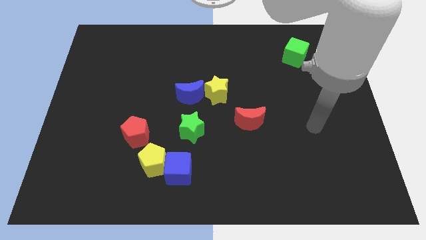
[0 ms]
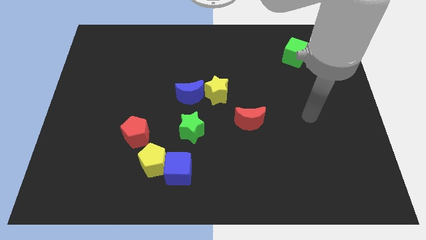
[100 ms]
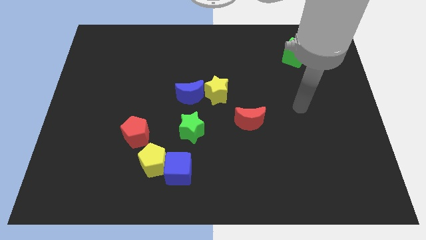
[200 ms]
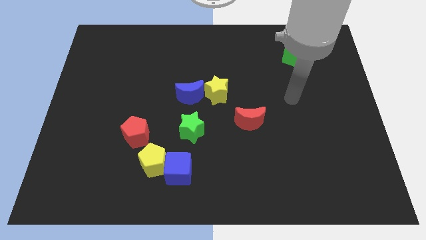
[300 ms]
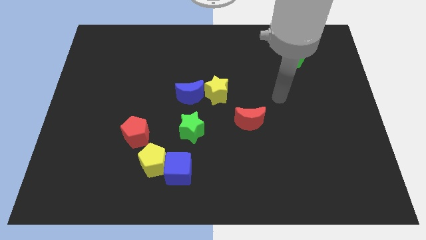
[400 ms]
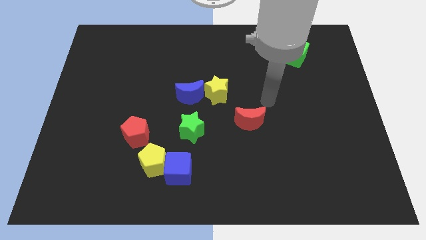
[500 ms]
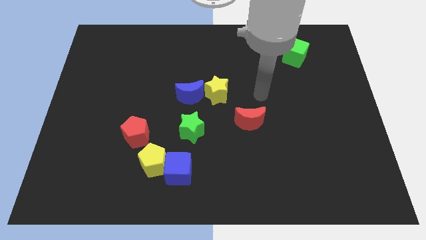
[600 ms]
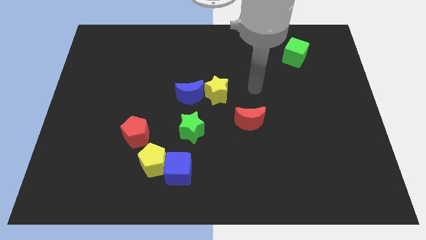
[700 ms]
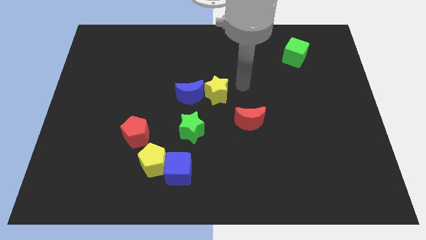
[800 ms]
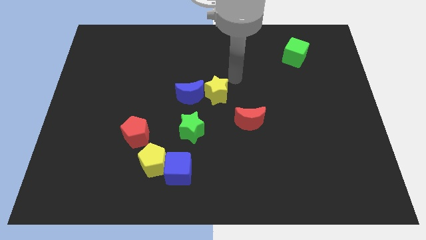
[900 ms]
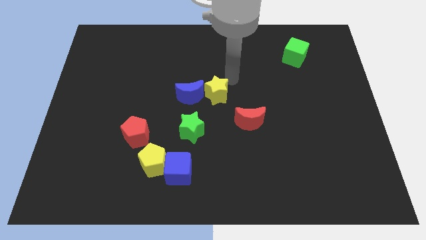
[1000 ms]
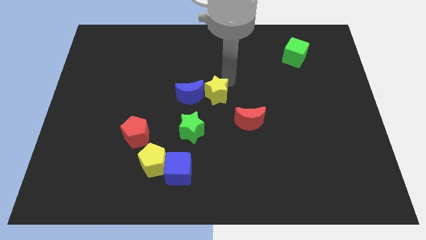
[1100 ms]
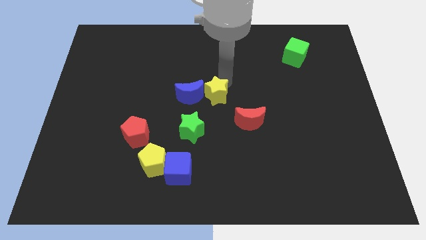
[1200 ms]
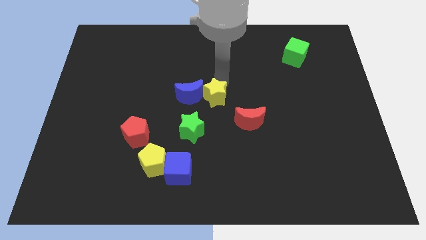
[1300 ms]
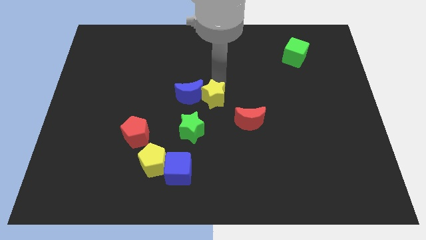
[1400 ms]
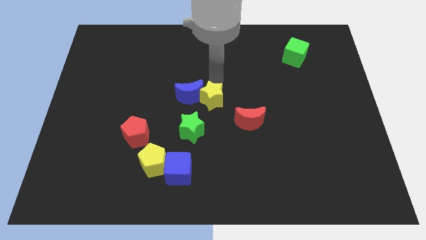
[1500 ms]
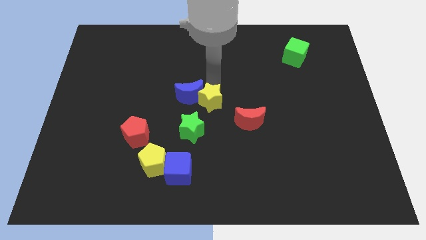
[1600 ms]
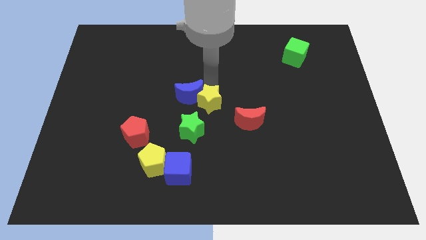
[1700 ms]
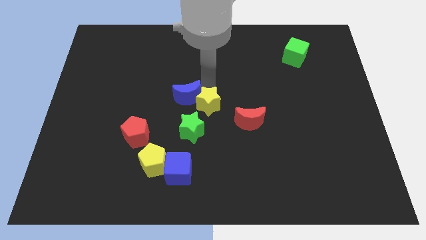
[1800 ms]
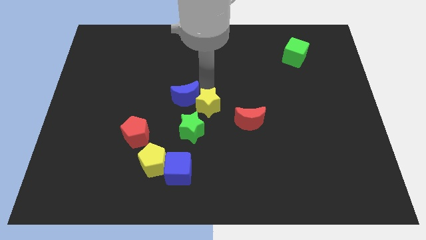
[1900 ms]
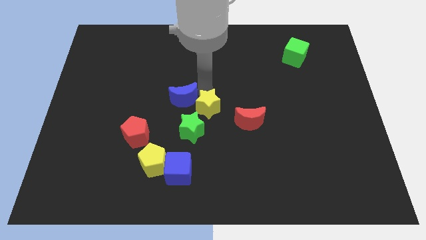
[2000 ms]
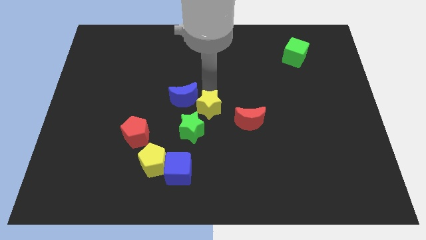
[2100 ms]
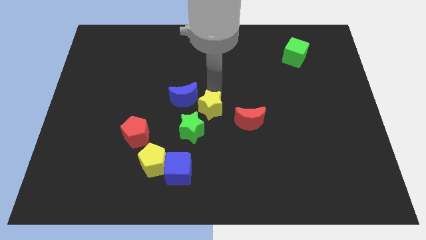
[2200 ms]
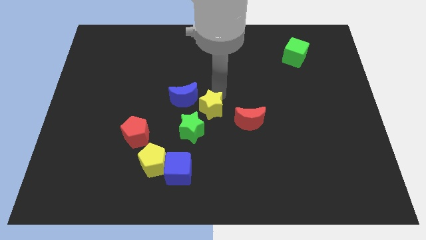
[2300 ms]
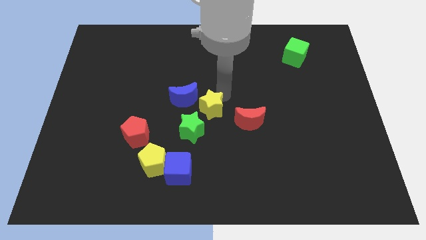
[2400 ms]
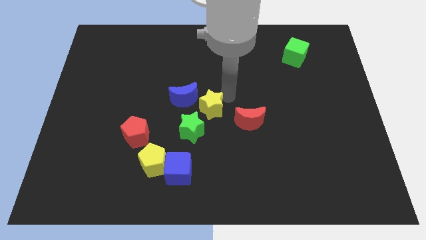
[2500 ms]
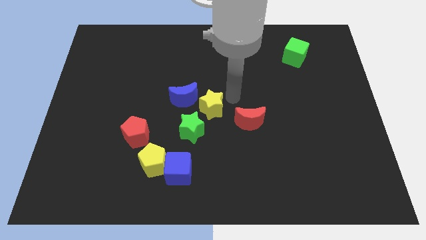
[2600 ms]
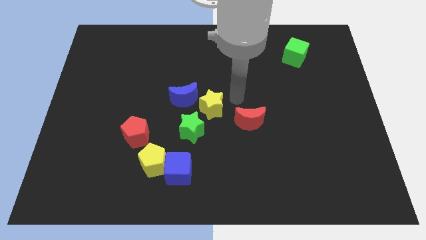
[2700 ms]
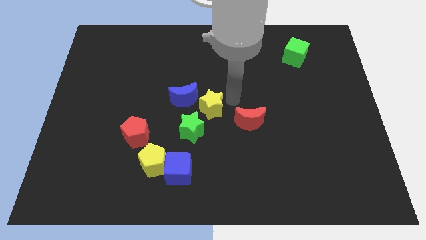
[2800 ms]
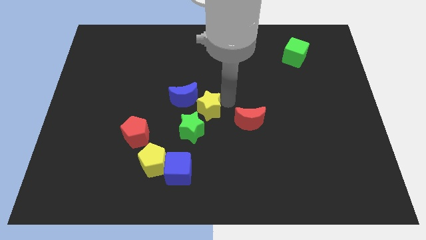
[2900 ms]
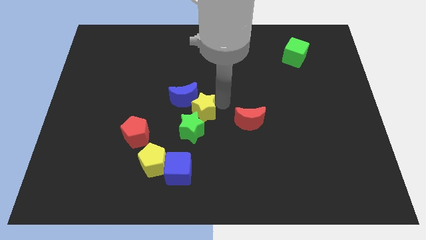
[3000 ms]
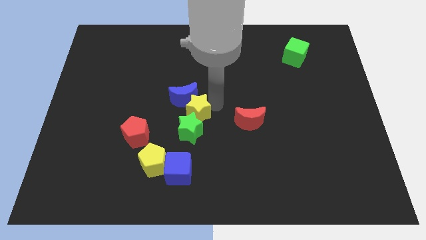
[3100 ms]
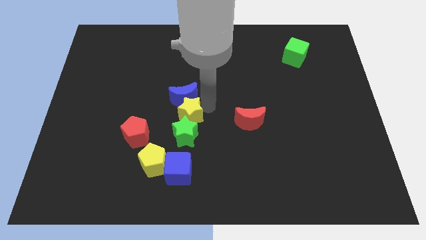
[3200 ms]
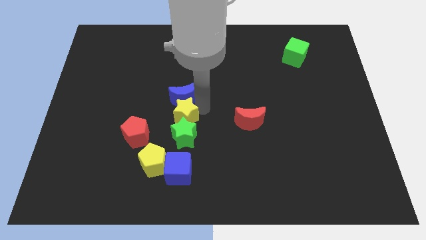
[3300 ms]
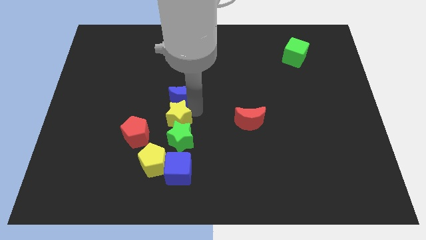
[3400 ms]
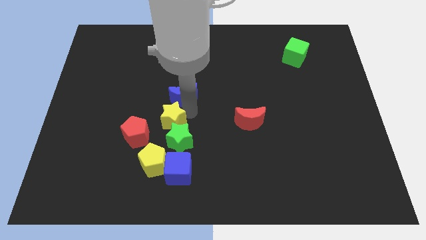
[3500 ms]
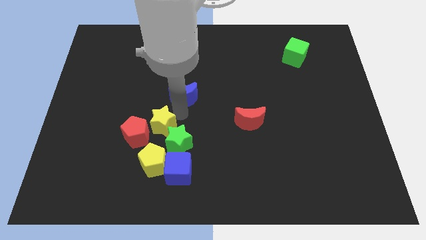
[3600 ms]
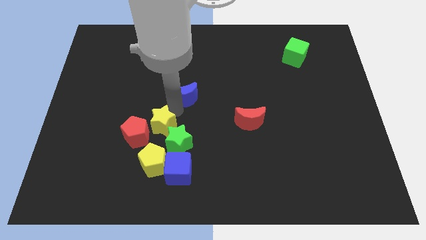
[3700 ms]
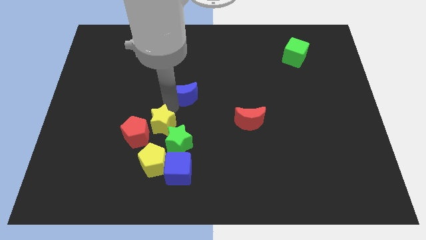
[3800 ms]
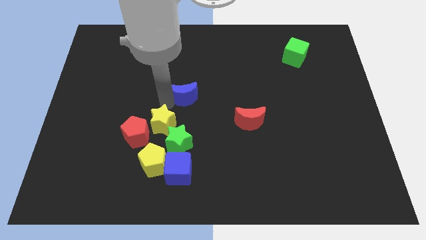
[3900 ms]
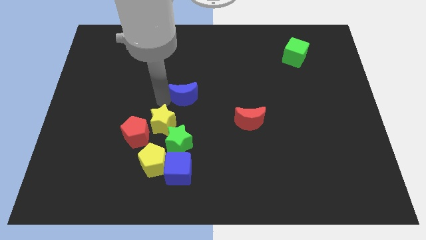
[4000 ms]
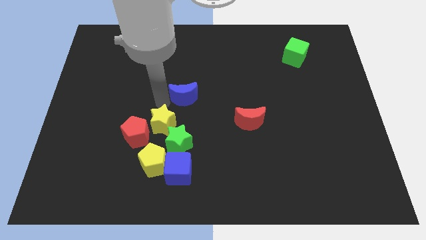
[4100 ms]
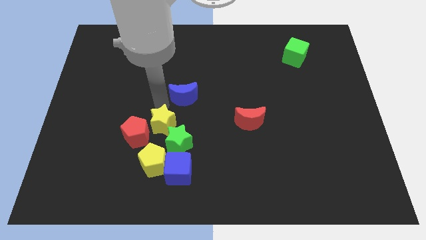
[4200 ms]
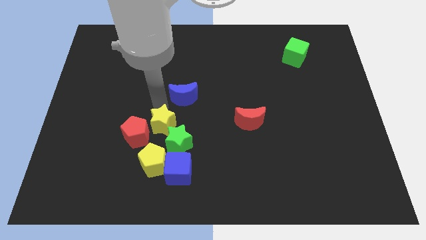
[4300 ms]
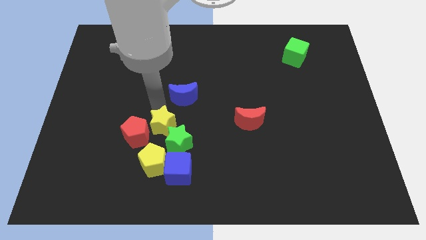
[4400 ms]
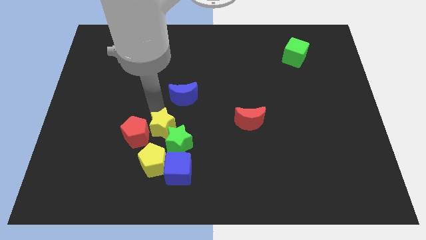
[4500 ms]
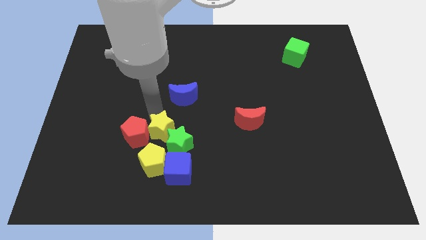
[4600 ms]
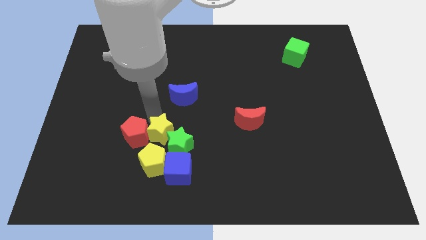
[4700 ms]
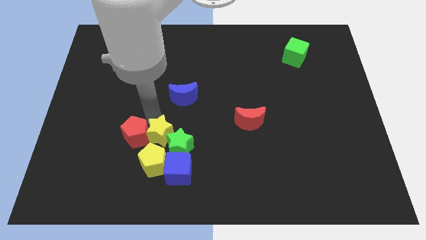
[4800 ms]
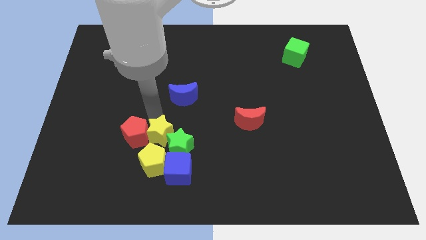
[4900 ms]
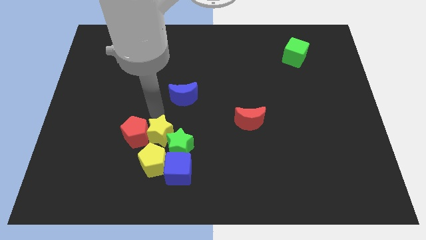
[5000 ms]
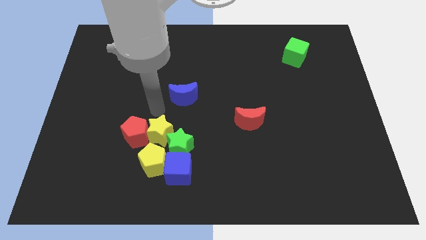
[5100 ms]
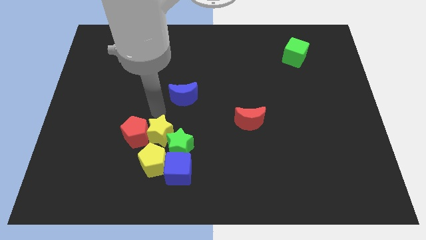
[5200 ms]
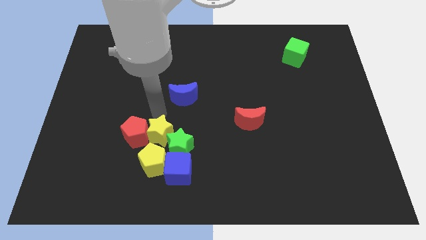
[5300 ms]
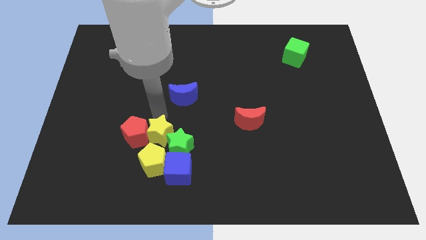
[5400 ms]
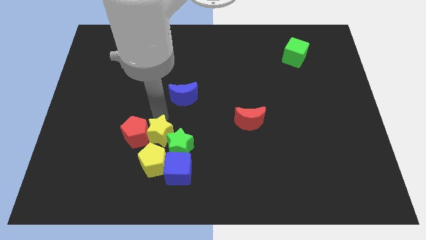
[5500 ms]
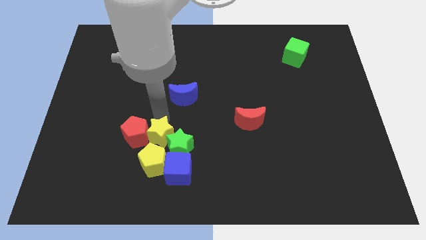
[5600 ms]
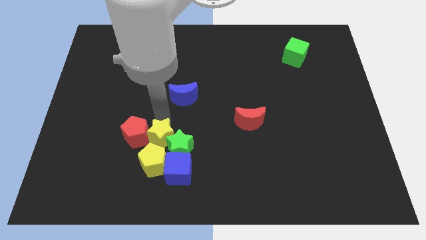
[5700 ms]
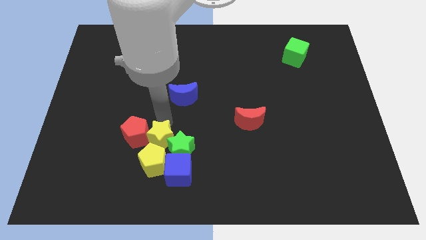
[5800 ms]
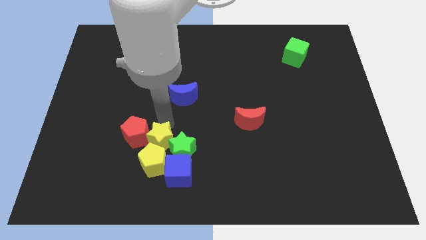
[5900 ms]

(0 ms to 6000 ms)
push the yellow star close to the yellow pentagon

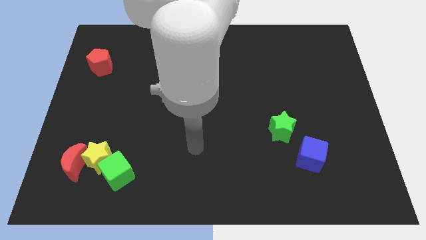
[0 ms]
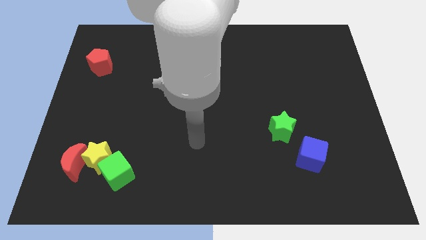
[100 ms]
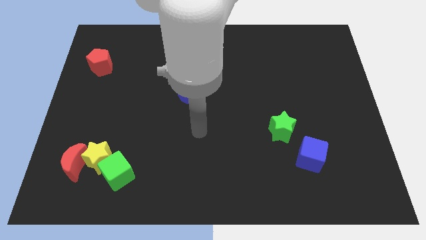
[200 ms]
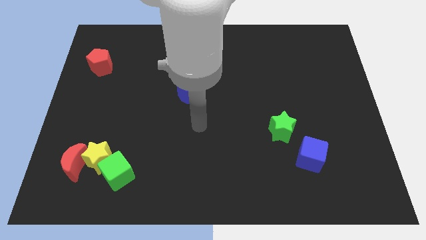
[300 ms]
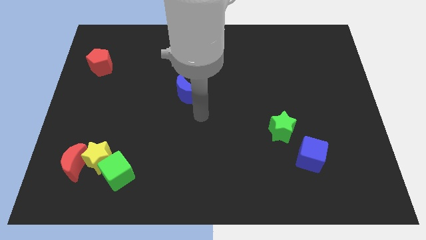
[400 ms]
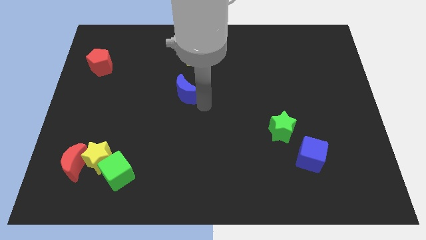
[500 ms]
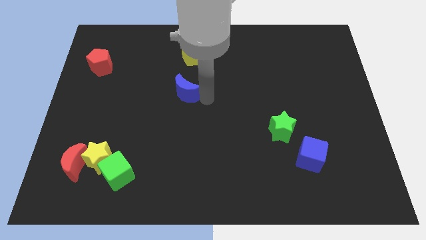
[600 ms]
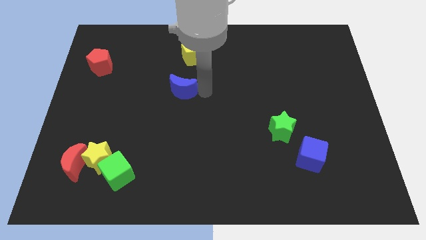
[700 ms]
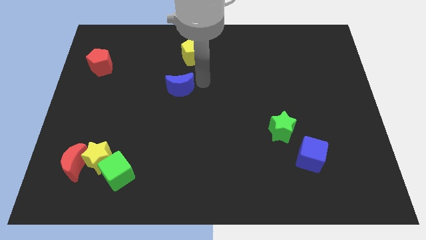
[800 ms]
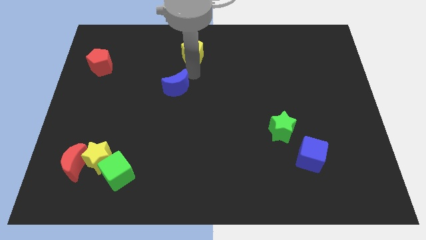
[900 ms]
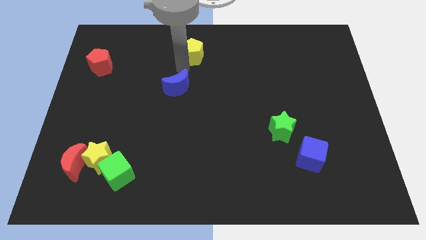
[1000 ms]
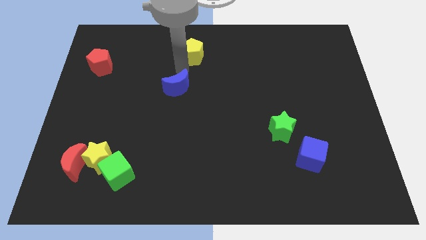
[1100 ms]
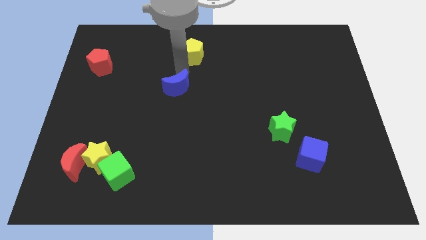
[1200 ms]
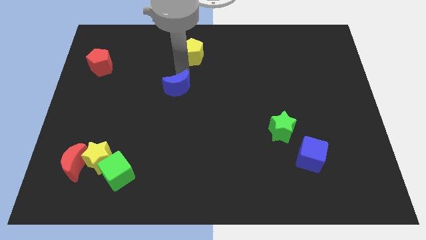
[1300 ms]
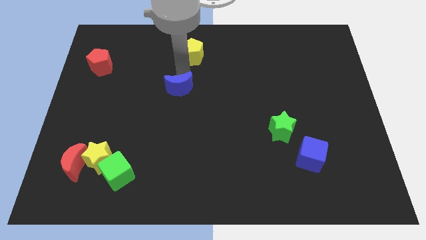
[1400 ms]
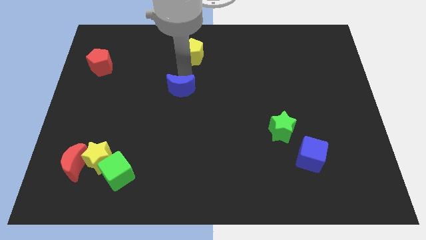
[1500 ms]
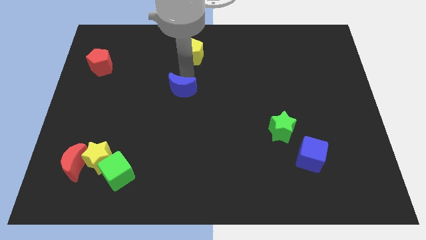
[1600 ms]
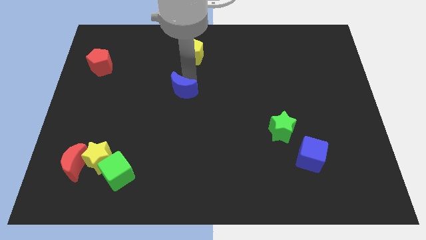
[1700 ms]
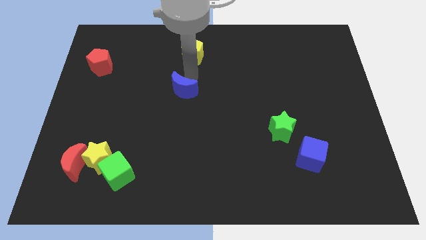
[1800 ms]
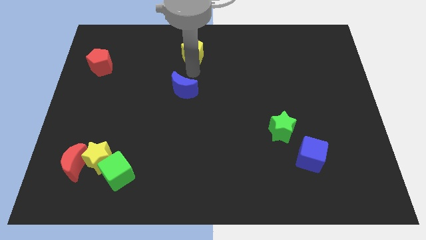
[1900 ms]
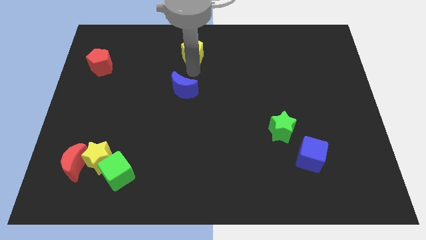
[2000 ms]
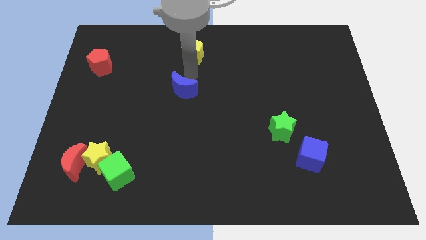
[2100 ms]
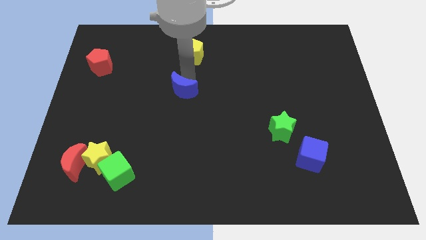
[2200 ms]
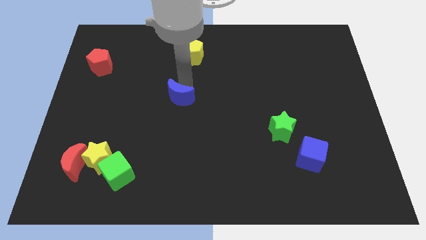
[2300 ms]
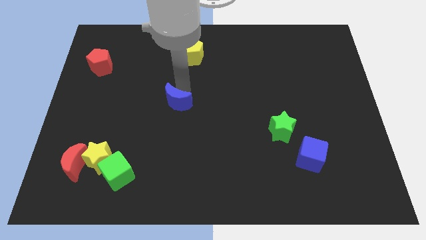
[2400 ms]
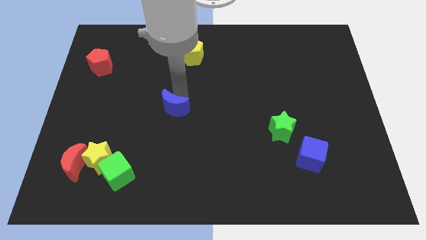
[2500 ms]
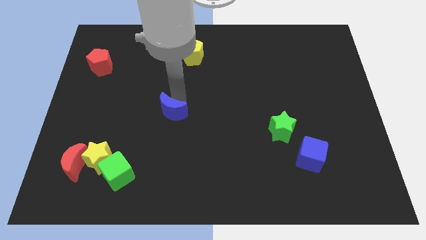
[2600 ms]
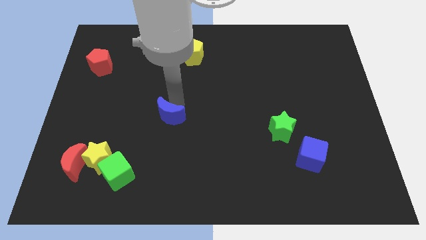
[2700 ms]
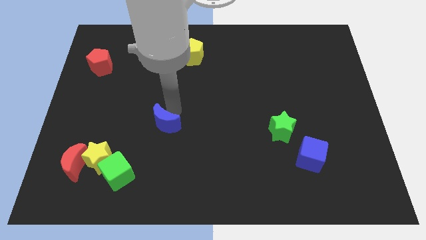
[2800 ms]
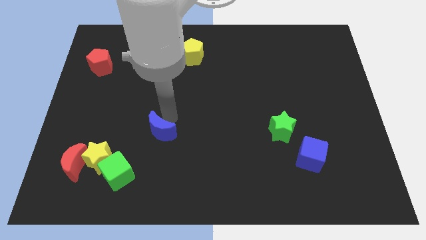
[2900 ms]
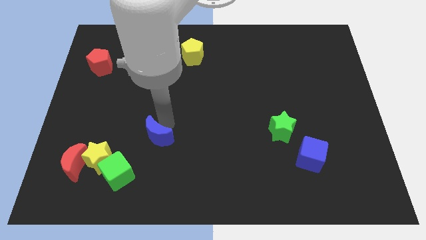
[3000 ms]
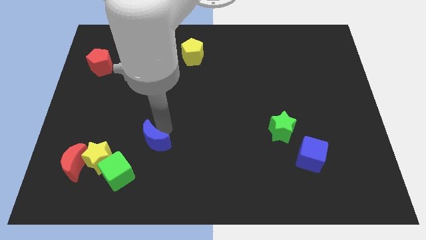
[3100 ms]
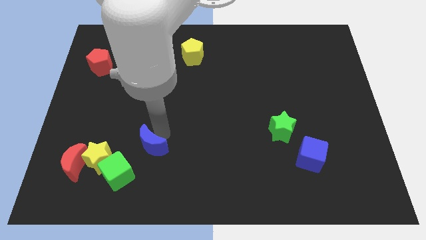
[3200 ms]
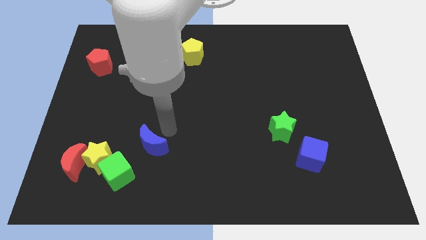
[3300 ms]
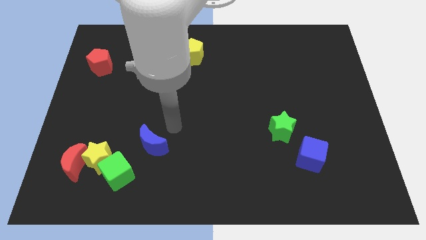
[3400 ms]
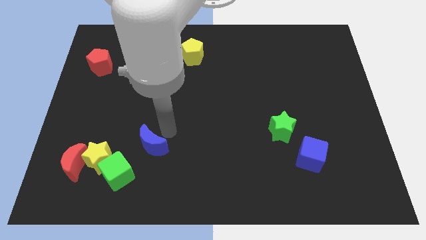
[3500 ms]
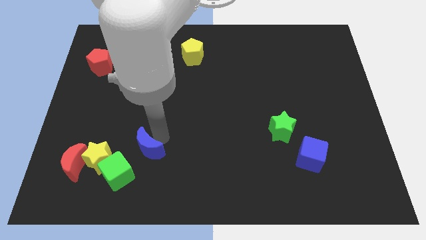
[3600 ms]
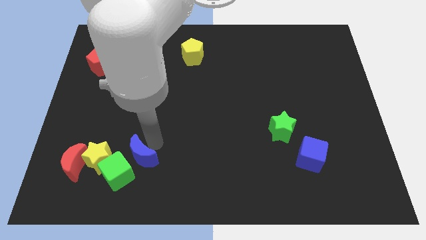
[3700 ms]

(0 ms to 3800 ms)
push the blue moon close to the green cube
